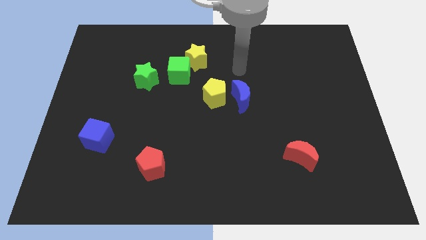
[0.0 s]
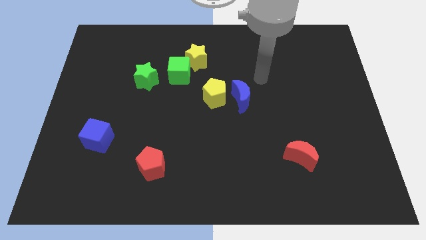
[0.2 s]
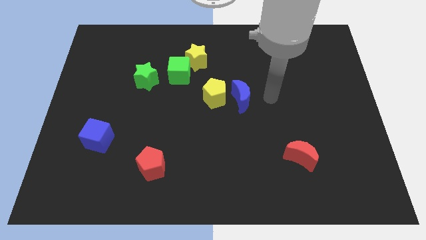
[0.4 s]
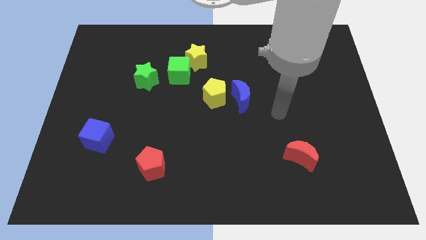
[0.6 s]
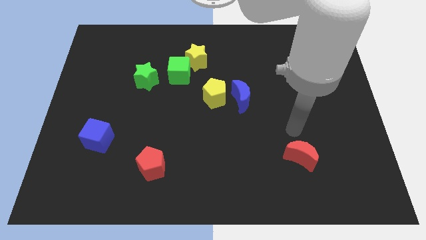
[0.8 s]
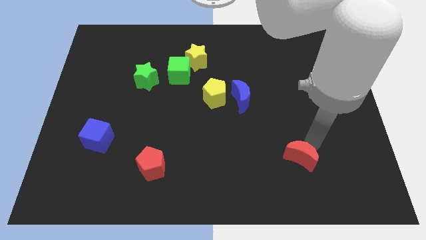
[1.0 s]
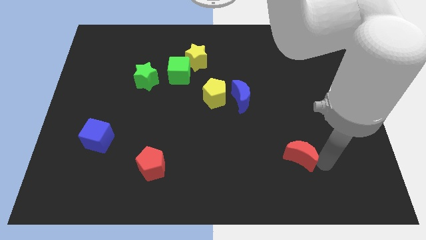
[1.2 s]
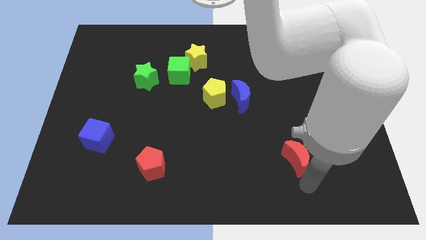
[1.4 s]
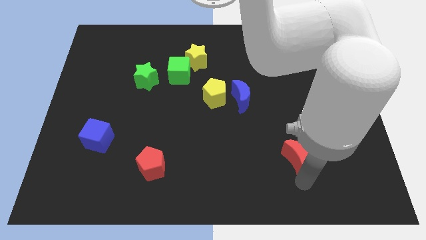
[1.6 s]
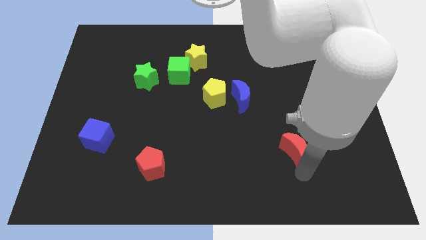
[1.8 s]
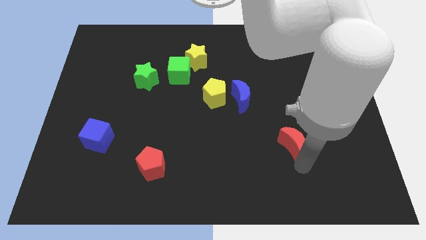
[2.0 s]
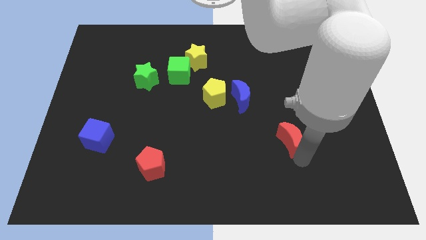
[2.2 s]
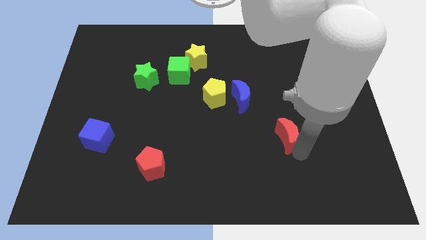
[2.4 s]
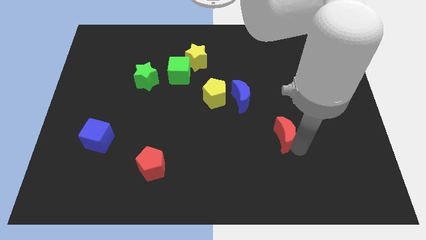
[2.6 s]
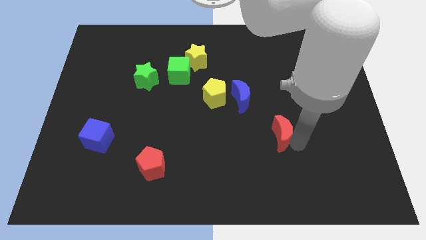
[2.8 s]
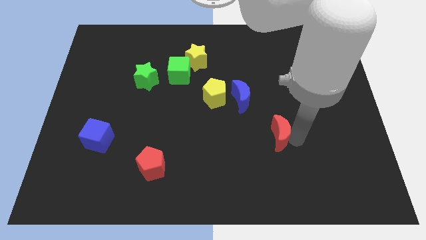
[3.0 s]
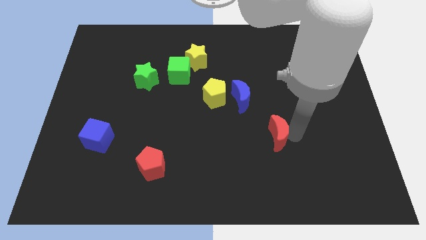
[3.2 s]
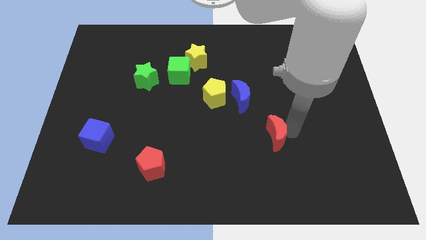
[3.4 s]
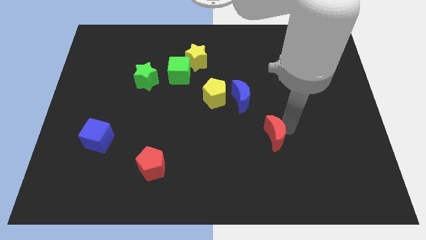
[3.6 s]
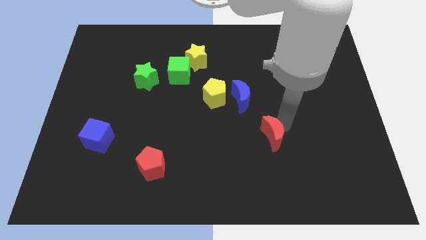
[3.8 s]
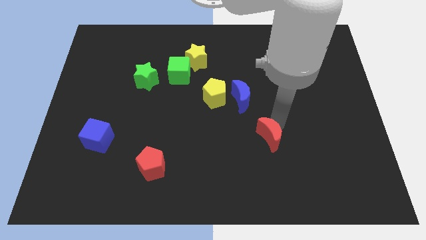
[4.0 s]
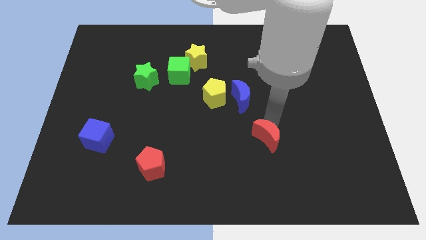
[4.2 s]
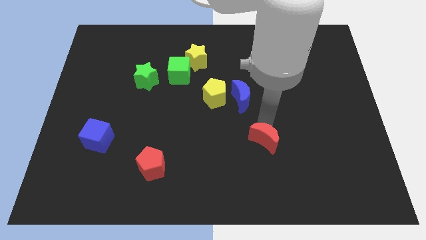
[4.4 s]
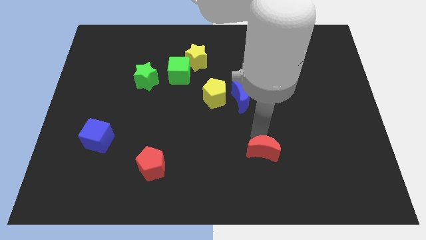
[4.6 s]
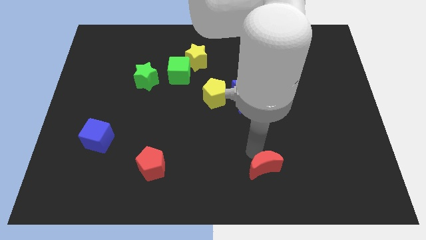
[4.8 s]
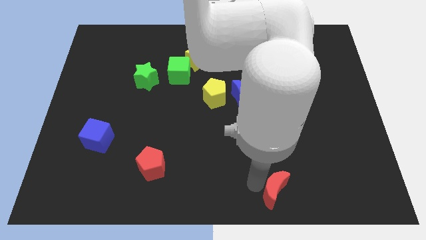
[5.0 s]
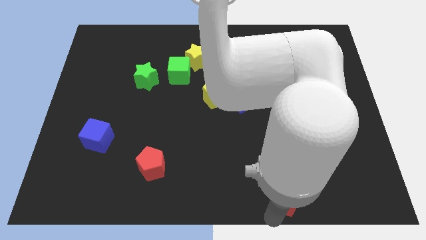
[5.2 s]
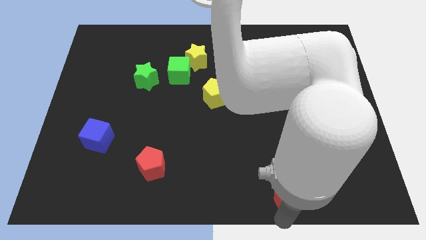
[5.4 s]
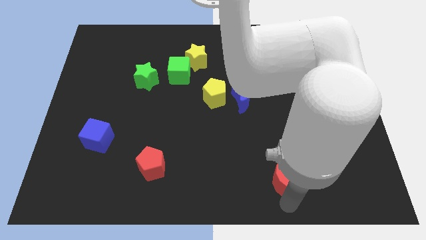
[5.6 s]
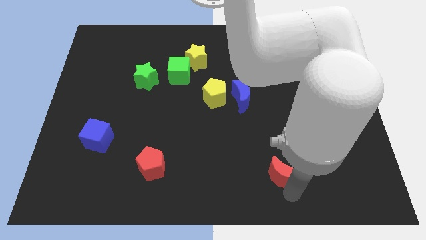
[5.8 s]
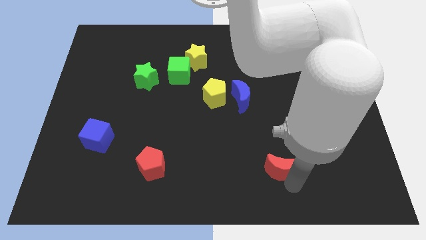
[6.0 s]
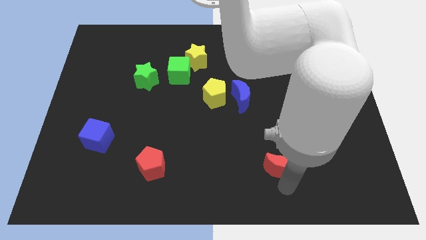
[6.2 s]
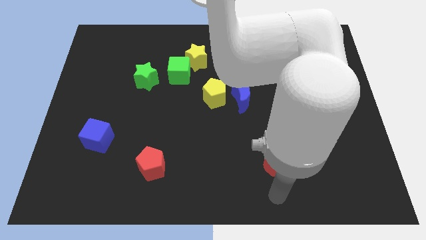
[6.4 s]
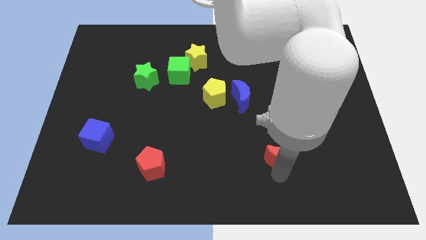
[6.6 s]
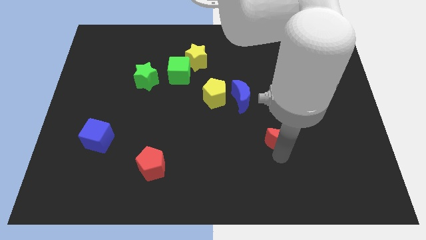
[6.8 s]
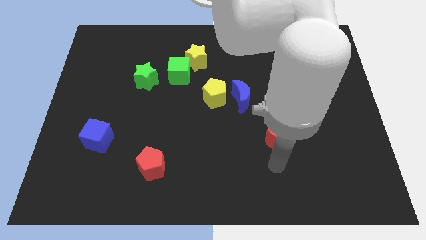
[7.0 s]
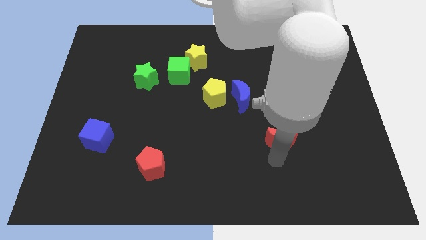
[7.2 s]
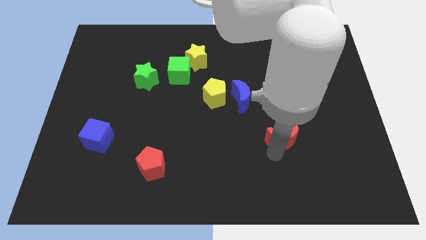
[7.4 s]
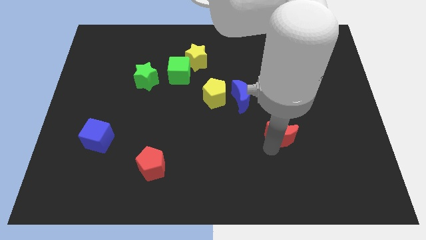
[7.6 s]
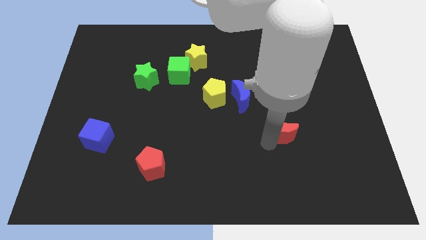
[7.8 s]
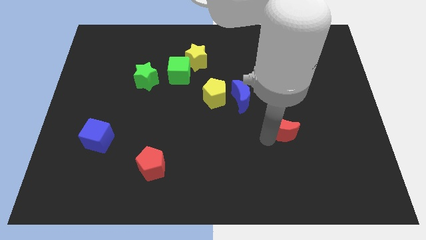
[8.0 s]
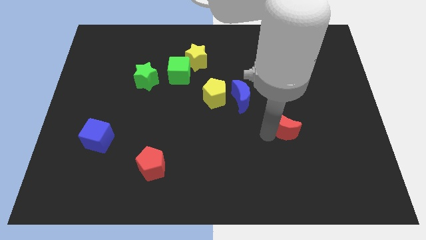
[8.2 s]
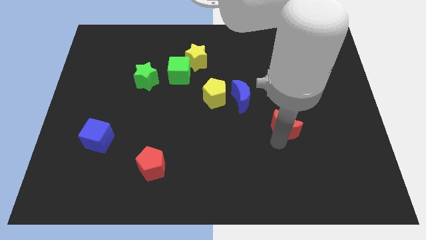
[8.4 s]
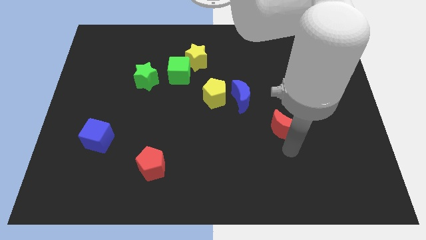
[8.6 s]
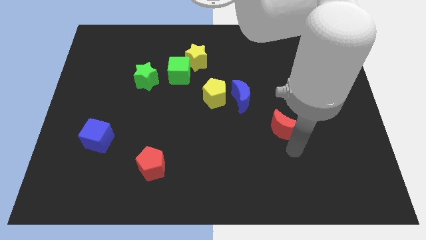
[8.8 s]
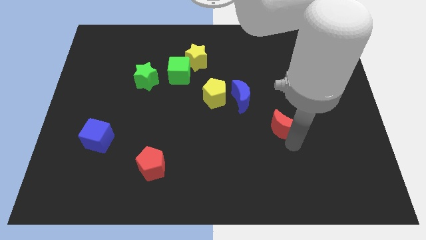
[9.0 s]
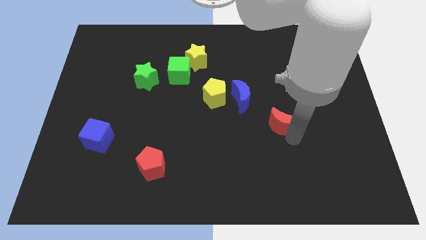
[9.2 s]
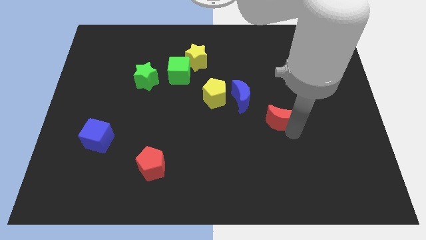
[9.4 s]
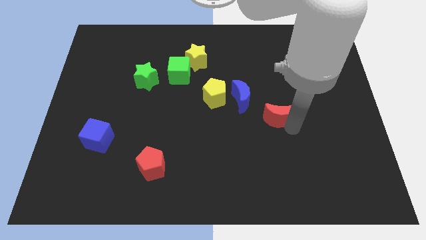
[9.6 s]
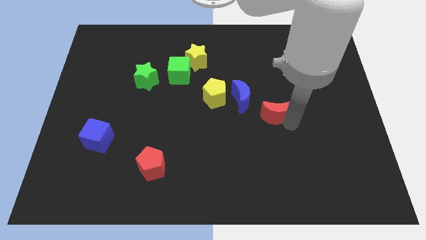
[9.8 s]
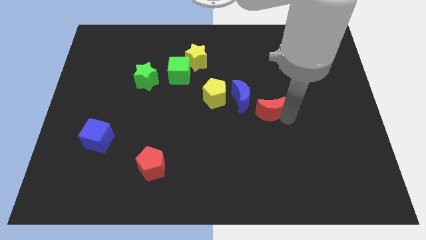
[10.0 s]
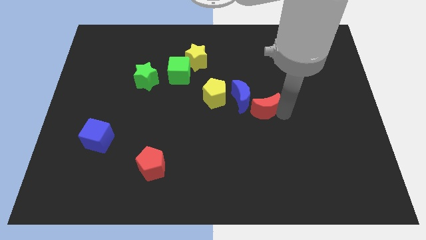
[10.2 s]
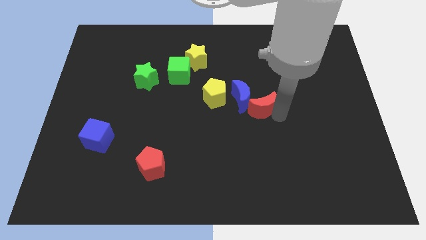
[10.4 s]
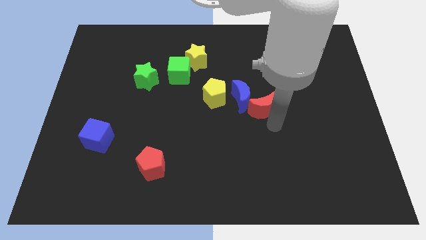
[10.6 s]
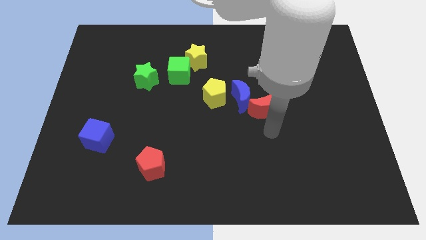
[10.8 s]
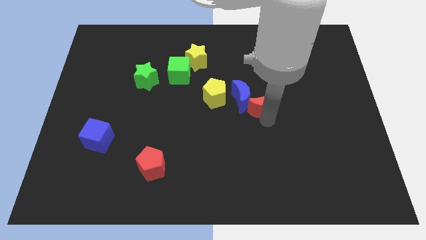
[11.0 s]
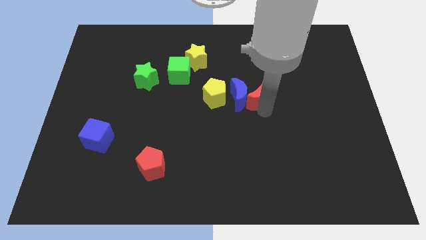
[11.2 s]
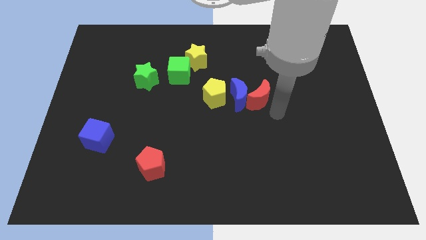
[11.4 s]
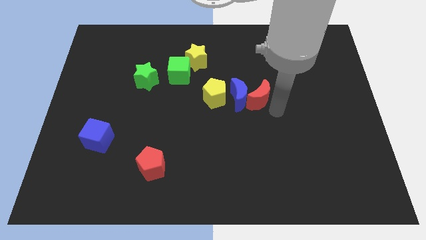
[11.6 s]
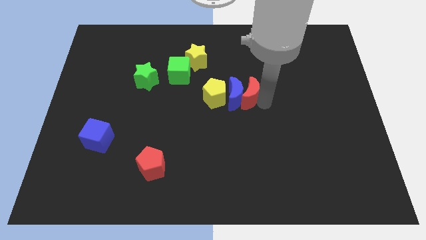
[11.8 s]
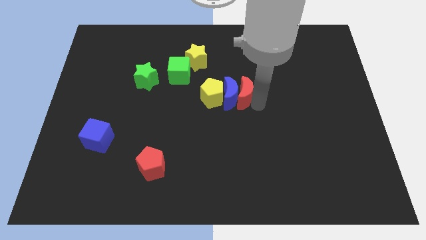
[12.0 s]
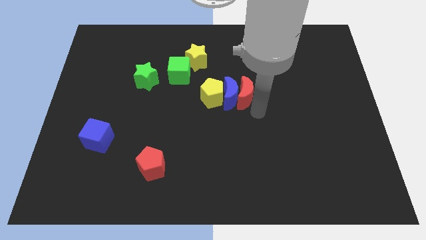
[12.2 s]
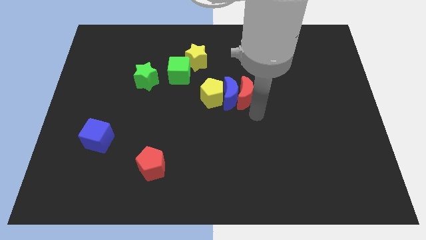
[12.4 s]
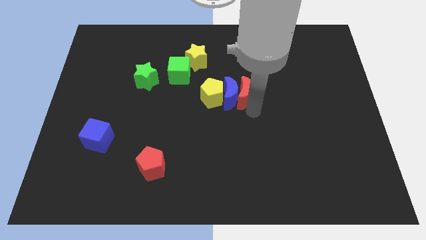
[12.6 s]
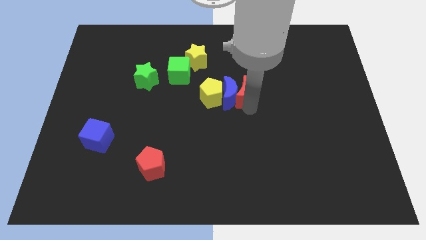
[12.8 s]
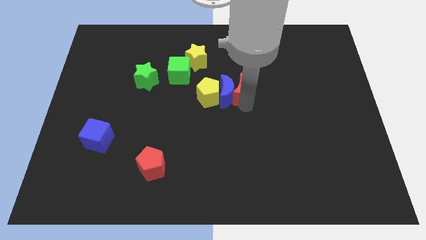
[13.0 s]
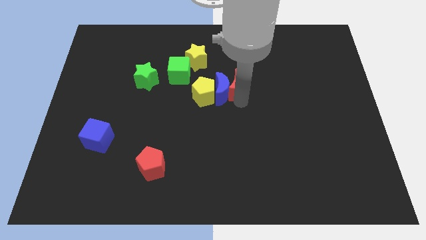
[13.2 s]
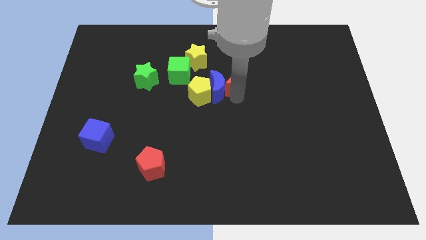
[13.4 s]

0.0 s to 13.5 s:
move the red moon to the bottom right of the yellow star

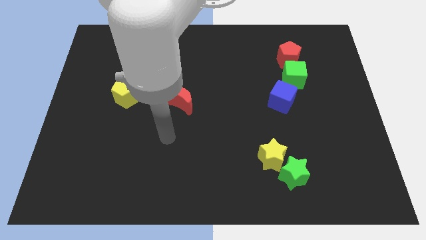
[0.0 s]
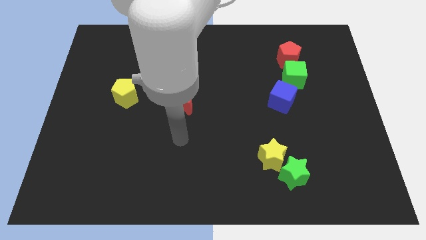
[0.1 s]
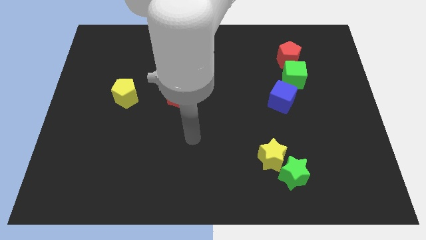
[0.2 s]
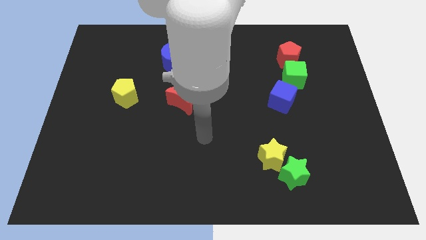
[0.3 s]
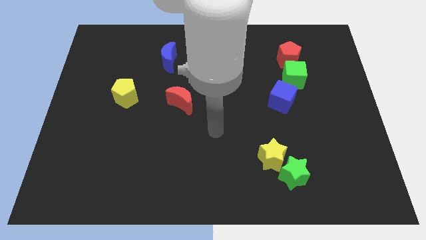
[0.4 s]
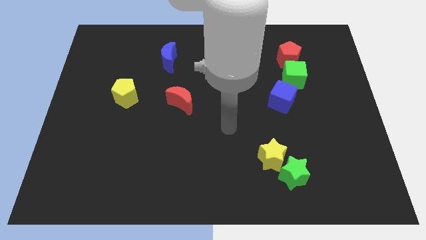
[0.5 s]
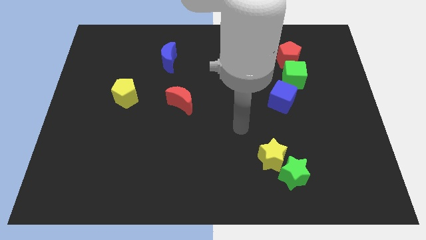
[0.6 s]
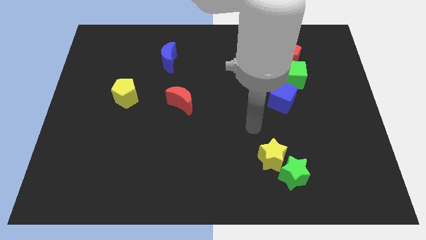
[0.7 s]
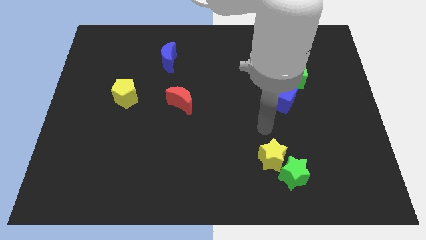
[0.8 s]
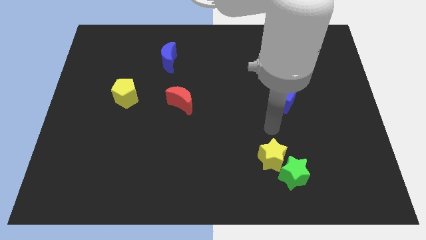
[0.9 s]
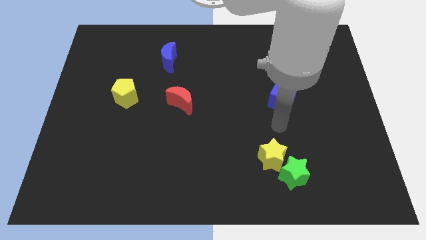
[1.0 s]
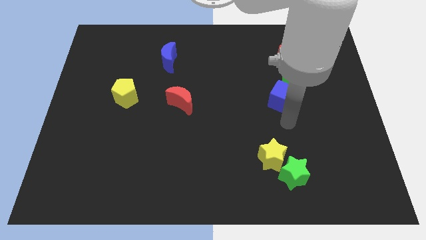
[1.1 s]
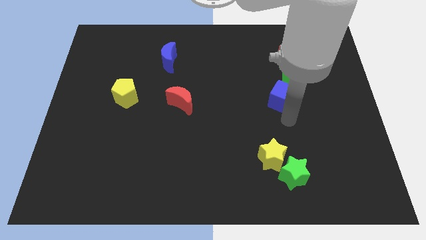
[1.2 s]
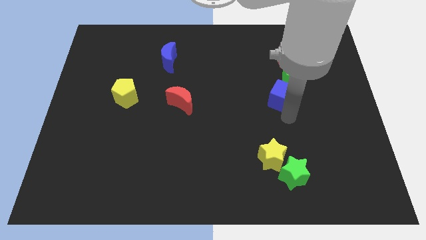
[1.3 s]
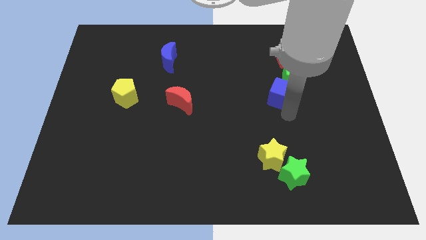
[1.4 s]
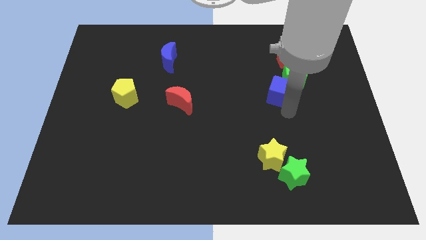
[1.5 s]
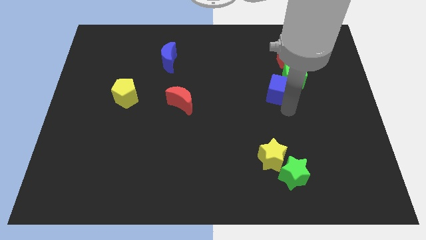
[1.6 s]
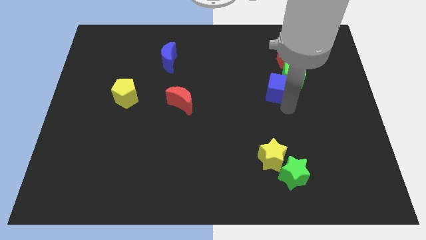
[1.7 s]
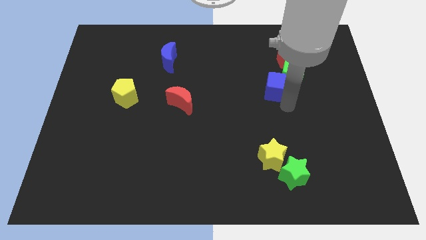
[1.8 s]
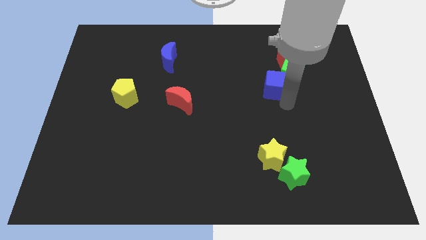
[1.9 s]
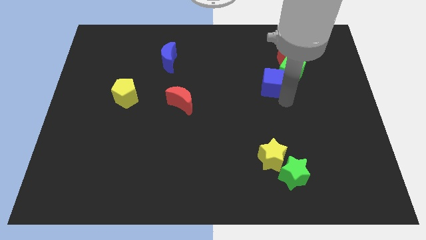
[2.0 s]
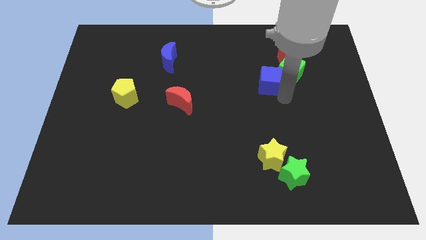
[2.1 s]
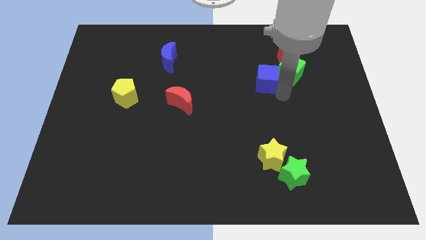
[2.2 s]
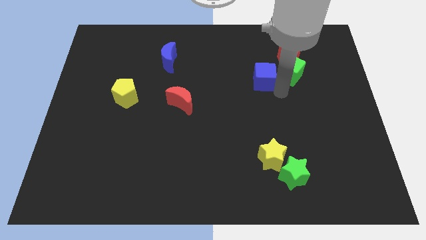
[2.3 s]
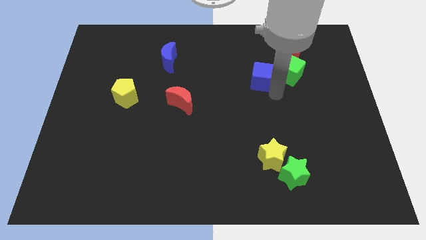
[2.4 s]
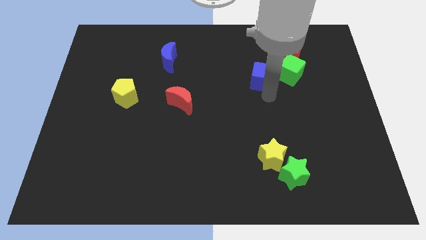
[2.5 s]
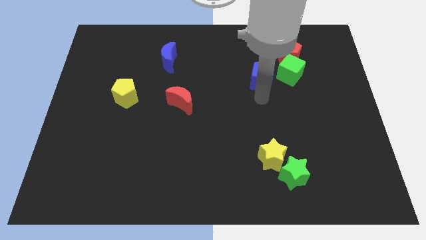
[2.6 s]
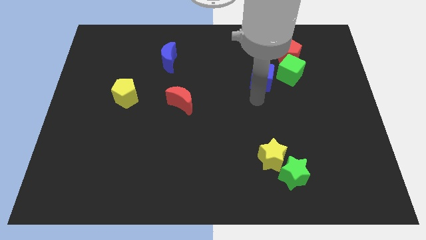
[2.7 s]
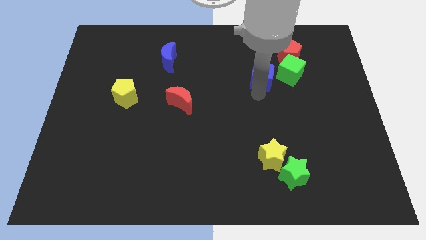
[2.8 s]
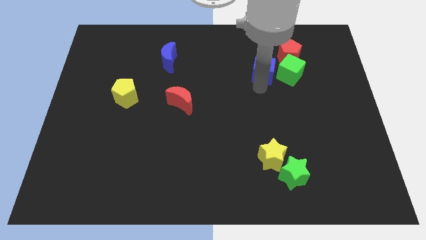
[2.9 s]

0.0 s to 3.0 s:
slide the blue cube to the top left of the green cube
